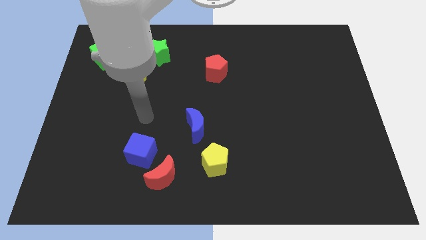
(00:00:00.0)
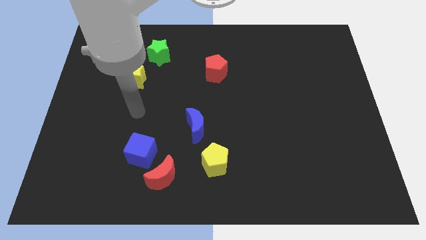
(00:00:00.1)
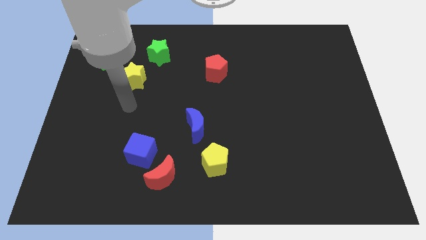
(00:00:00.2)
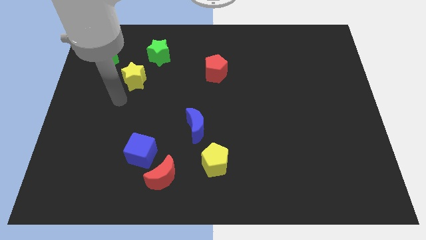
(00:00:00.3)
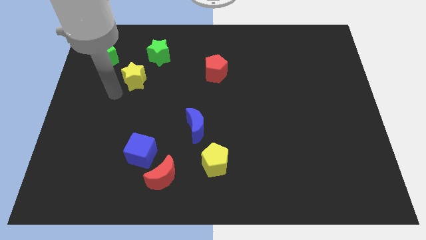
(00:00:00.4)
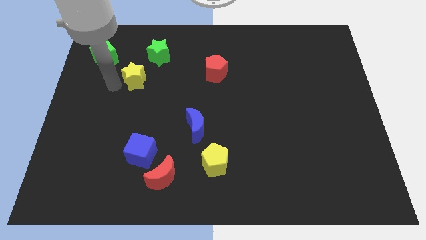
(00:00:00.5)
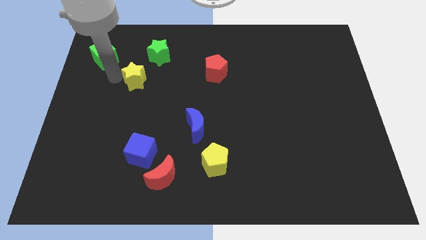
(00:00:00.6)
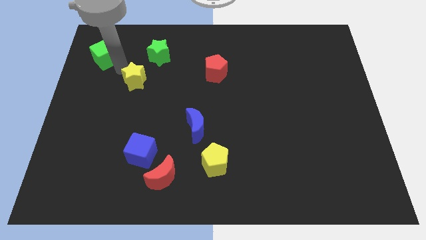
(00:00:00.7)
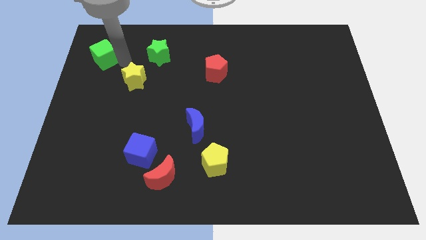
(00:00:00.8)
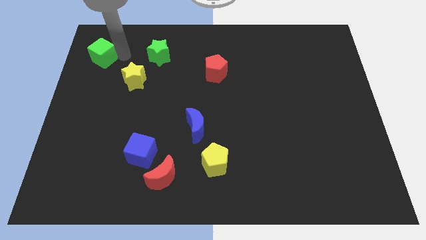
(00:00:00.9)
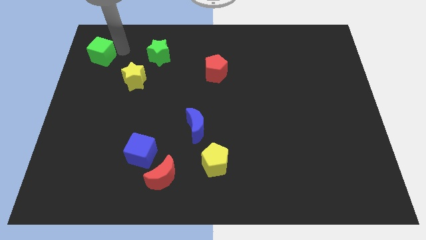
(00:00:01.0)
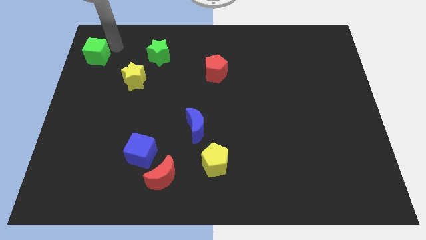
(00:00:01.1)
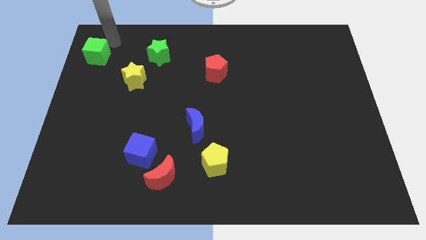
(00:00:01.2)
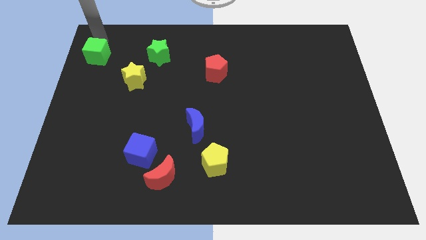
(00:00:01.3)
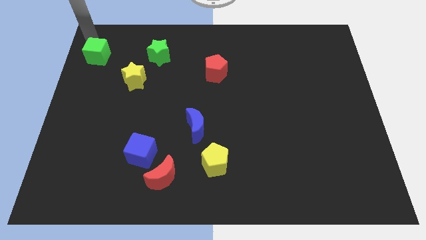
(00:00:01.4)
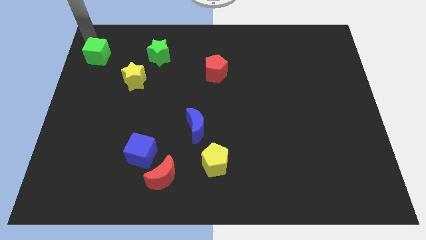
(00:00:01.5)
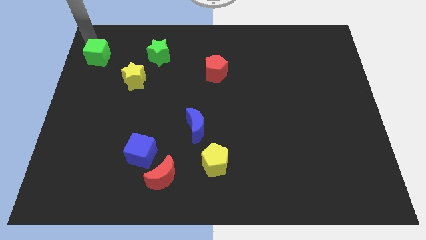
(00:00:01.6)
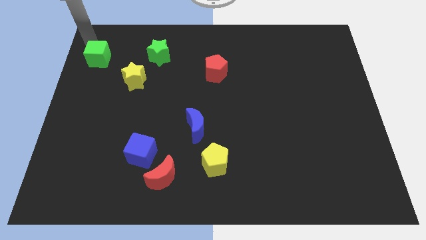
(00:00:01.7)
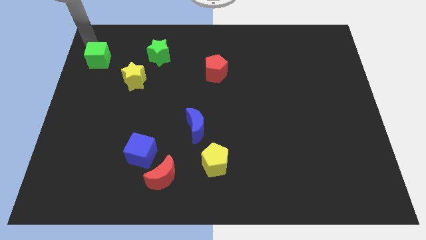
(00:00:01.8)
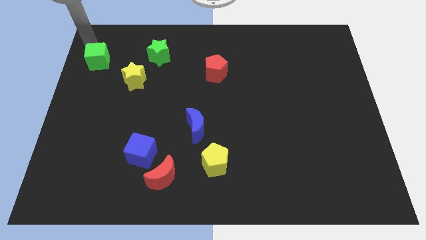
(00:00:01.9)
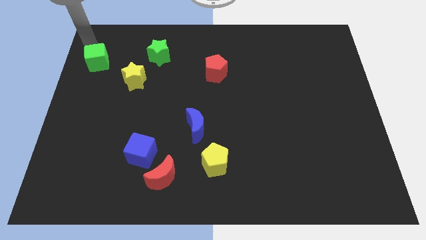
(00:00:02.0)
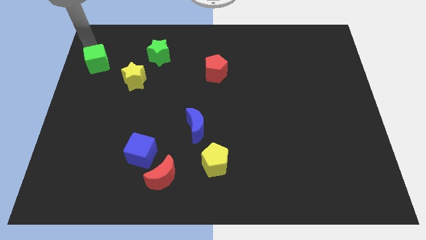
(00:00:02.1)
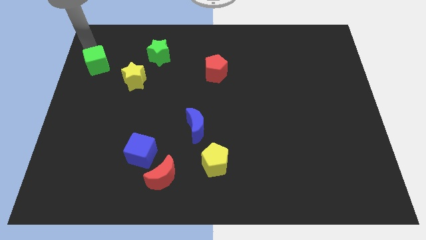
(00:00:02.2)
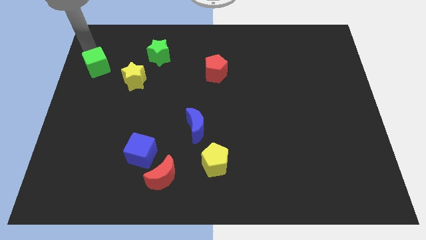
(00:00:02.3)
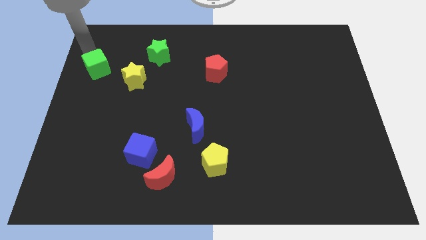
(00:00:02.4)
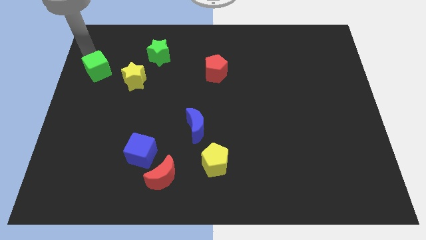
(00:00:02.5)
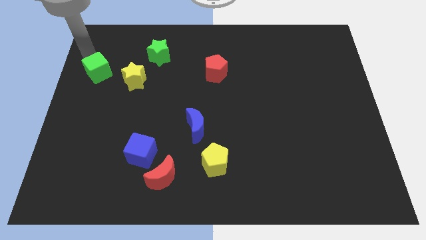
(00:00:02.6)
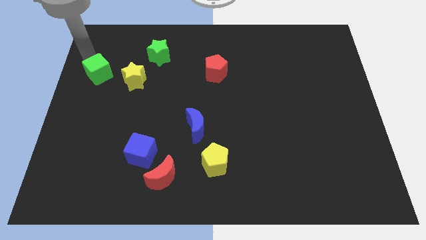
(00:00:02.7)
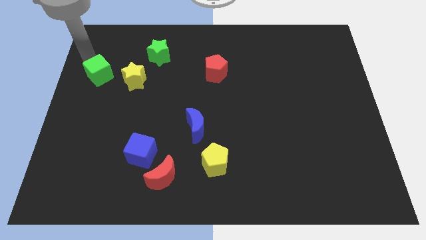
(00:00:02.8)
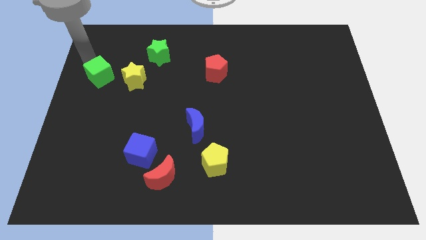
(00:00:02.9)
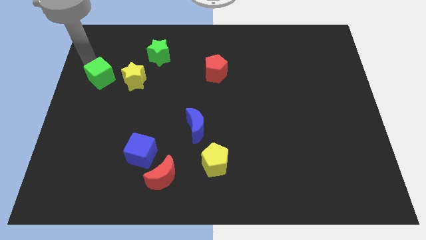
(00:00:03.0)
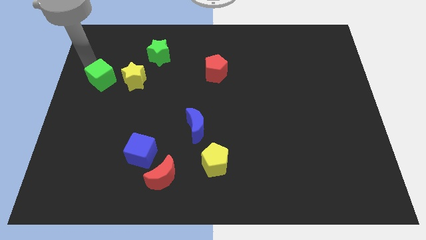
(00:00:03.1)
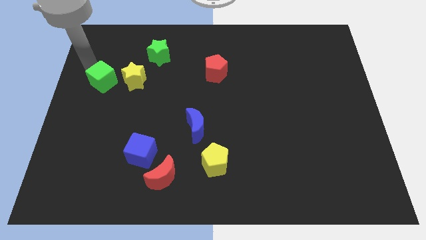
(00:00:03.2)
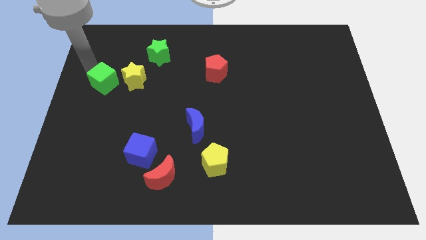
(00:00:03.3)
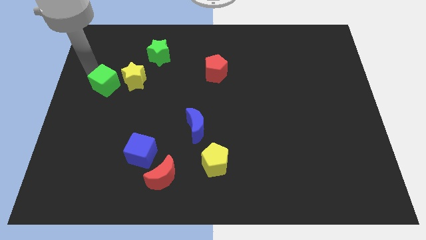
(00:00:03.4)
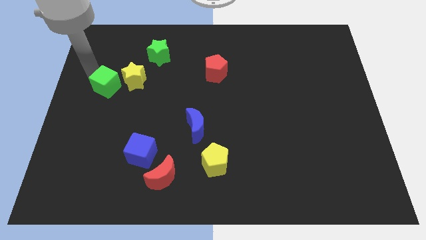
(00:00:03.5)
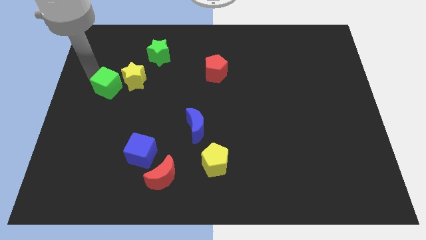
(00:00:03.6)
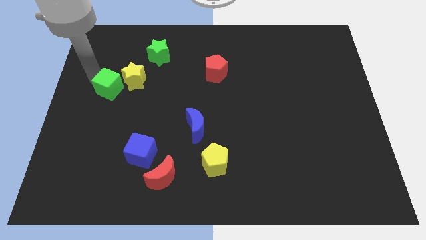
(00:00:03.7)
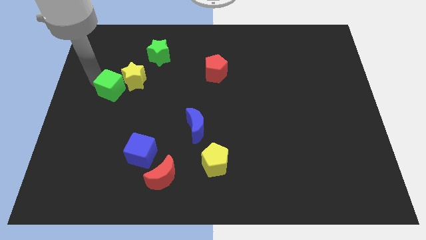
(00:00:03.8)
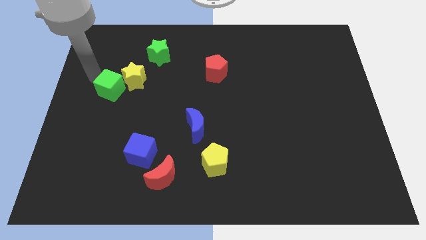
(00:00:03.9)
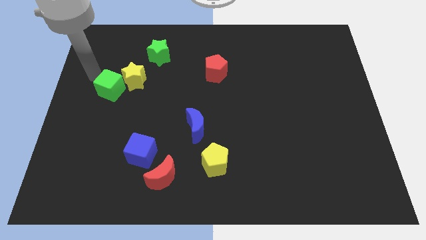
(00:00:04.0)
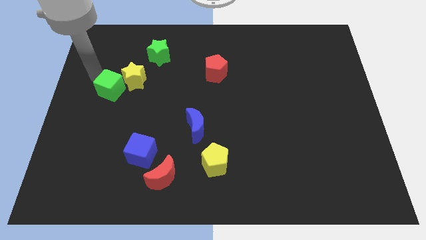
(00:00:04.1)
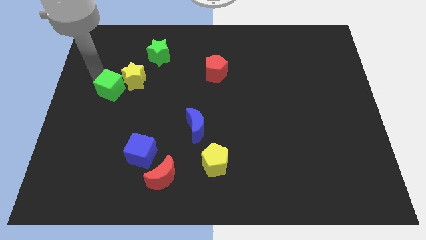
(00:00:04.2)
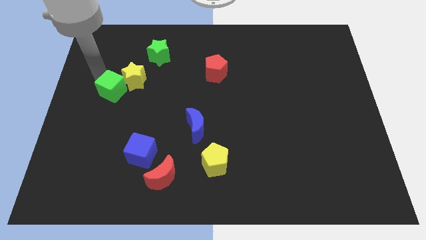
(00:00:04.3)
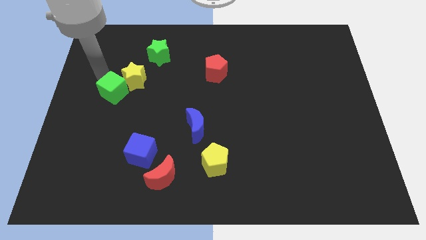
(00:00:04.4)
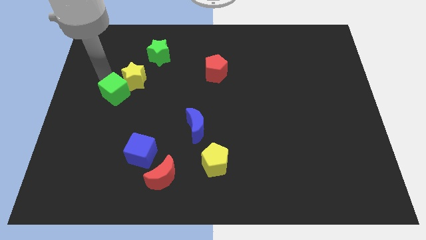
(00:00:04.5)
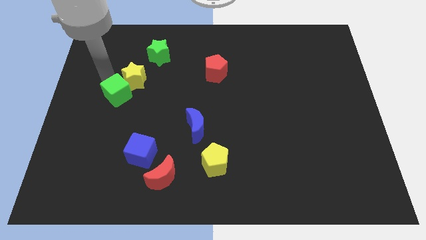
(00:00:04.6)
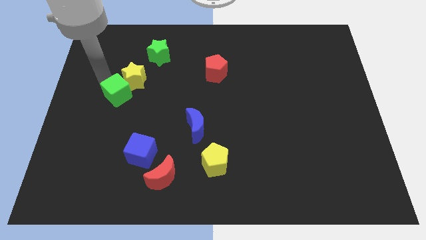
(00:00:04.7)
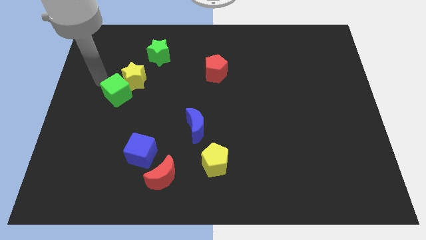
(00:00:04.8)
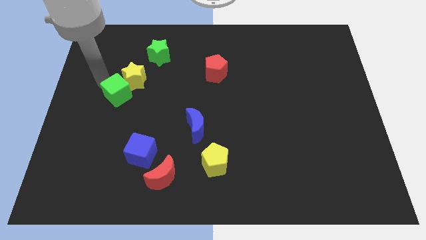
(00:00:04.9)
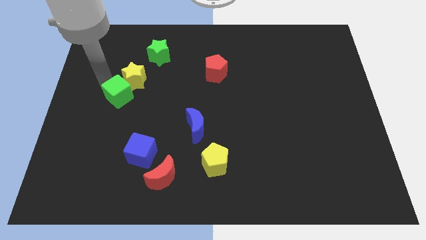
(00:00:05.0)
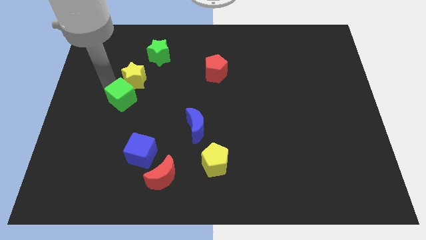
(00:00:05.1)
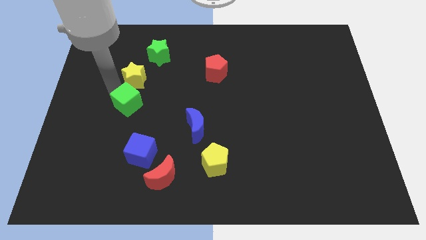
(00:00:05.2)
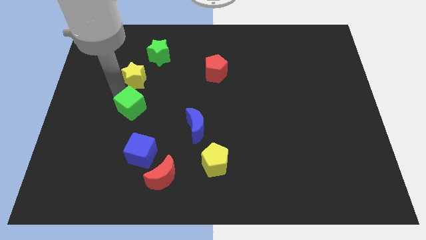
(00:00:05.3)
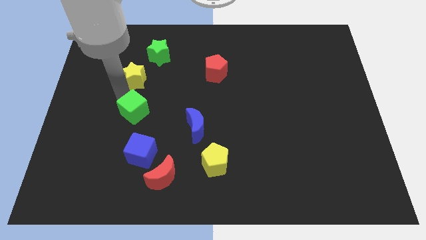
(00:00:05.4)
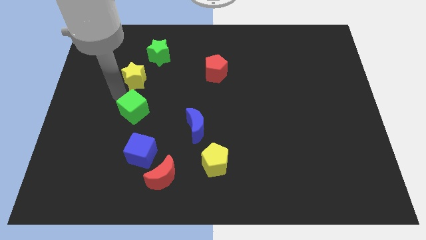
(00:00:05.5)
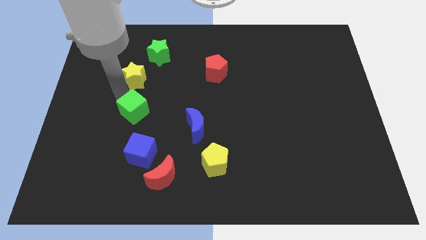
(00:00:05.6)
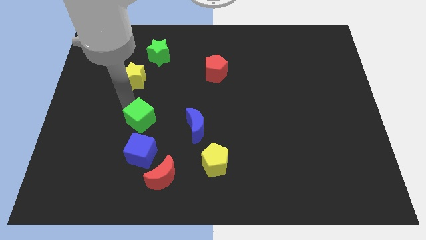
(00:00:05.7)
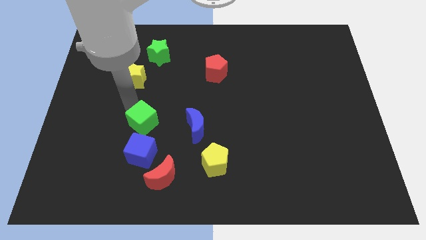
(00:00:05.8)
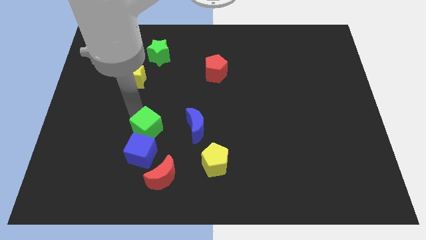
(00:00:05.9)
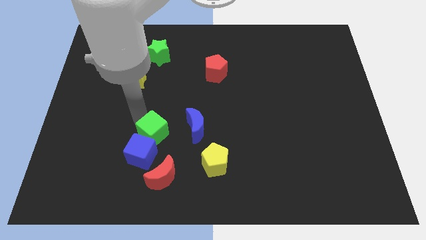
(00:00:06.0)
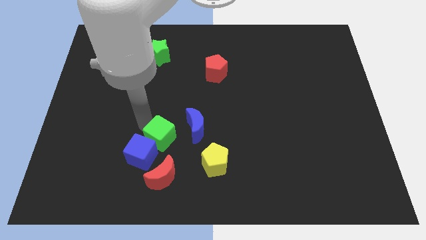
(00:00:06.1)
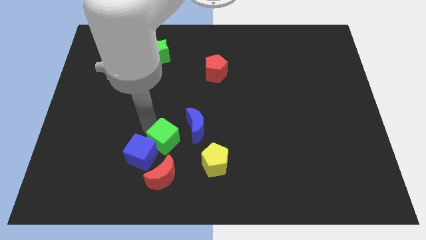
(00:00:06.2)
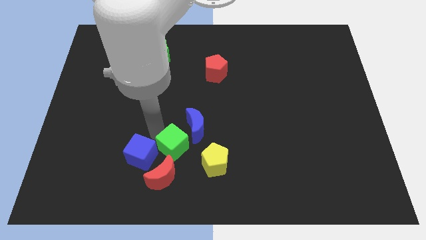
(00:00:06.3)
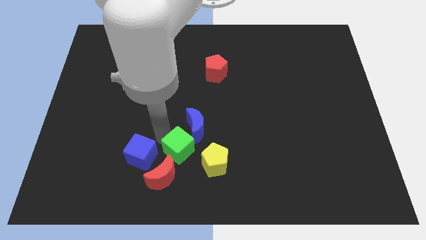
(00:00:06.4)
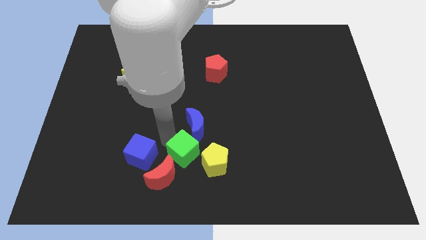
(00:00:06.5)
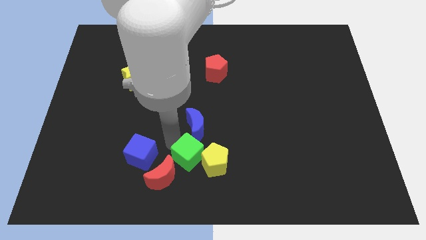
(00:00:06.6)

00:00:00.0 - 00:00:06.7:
push the green cube to the yellow pentagon
